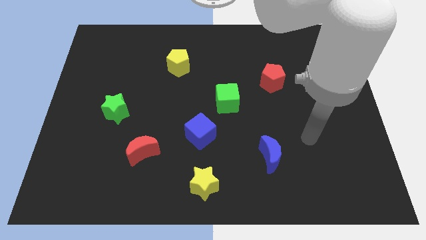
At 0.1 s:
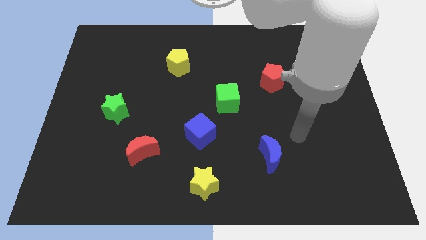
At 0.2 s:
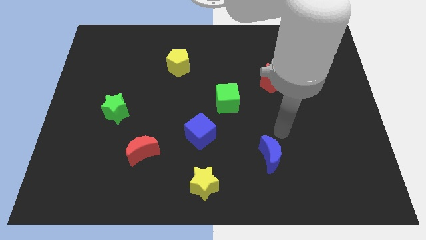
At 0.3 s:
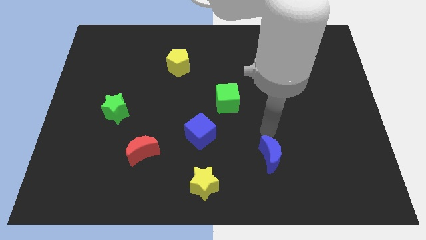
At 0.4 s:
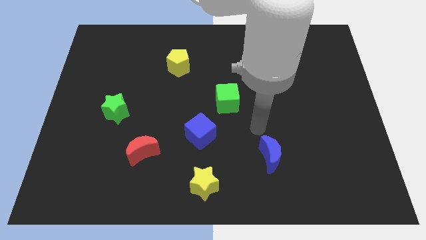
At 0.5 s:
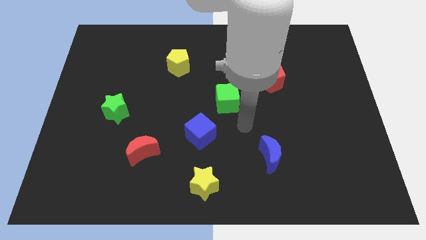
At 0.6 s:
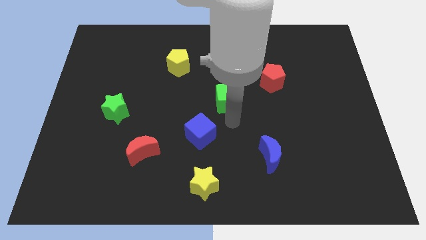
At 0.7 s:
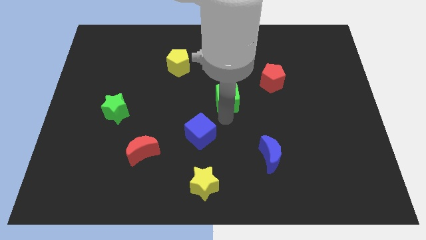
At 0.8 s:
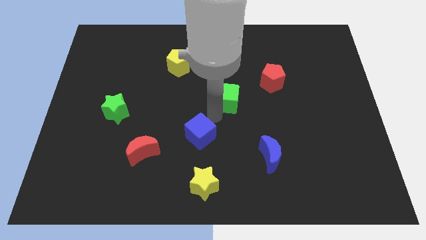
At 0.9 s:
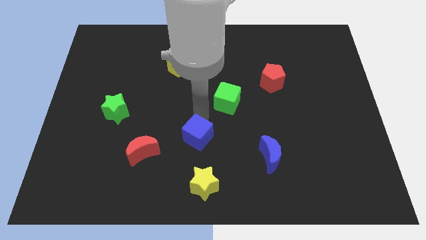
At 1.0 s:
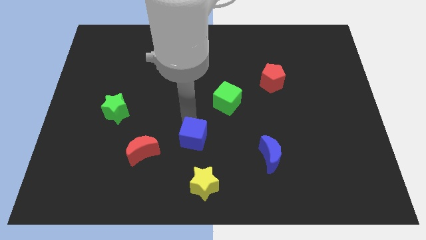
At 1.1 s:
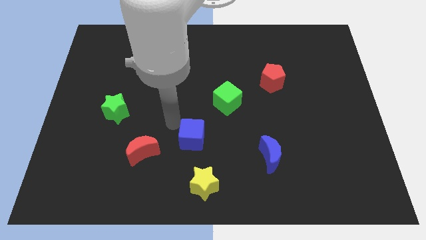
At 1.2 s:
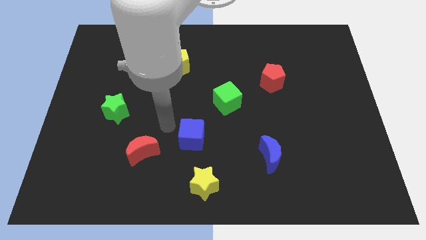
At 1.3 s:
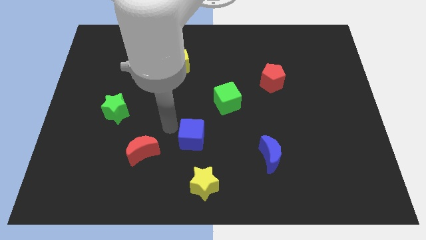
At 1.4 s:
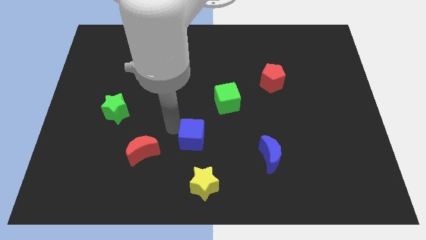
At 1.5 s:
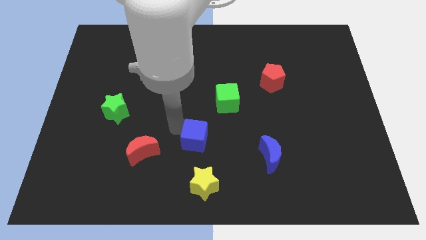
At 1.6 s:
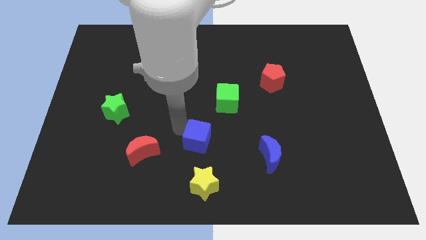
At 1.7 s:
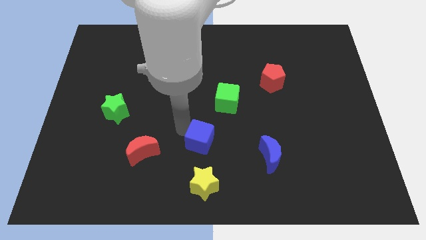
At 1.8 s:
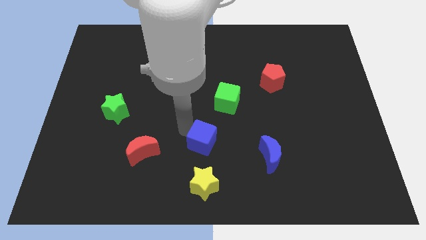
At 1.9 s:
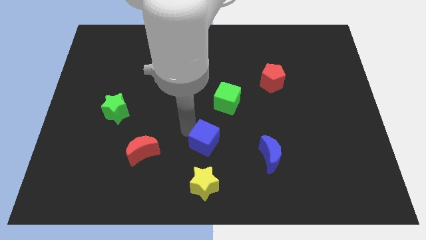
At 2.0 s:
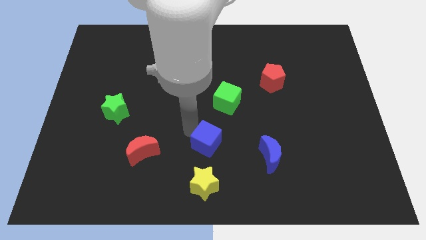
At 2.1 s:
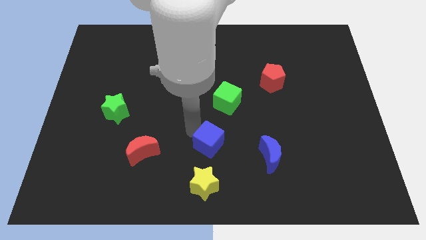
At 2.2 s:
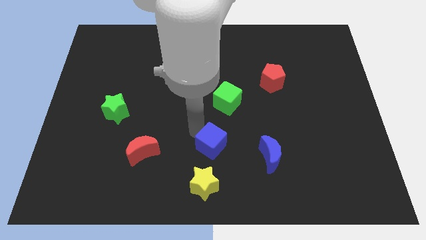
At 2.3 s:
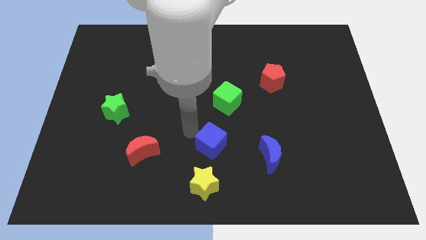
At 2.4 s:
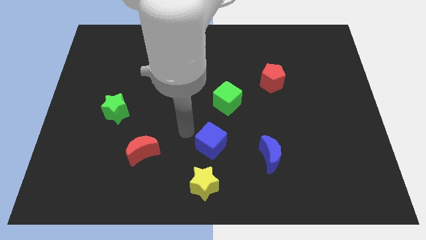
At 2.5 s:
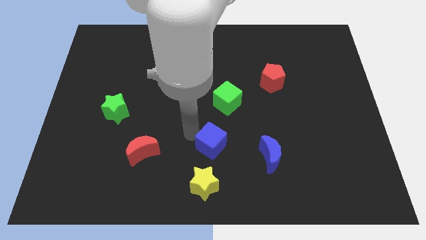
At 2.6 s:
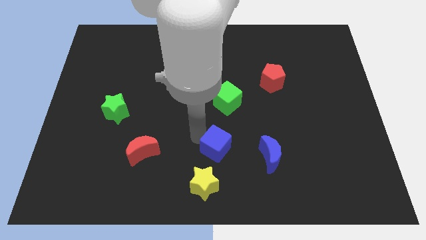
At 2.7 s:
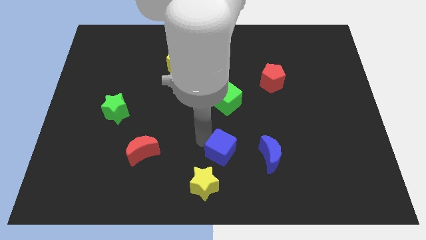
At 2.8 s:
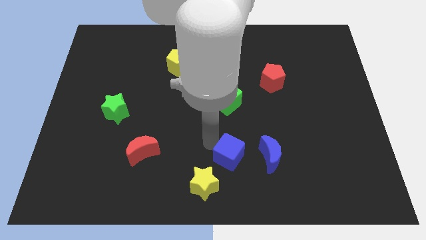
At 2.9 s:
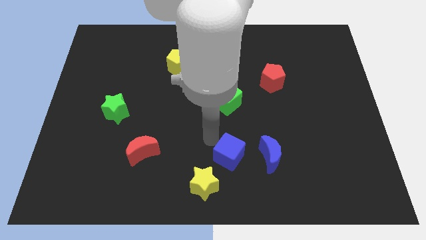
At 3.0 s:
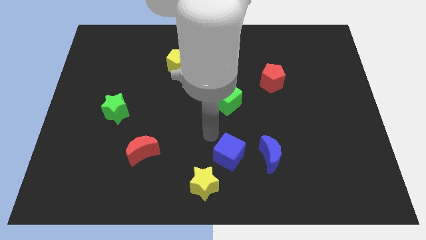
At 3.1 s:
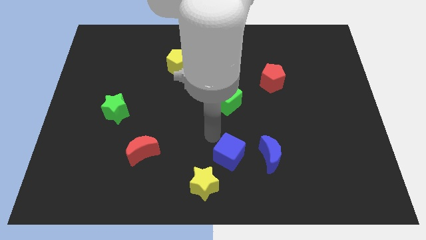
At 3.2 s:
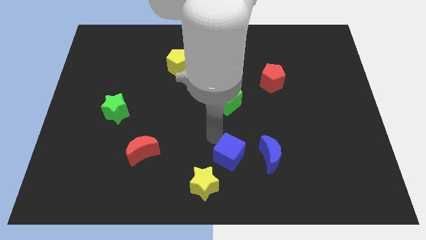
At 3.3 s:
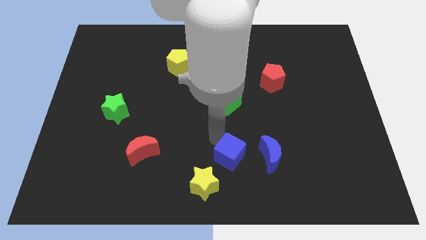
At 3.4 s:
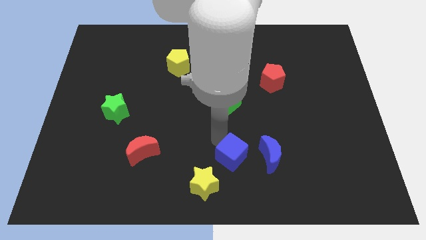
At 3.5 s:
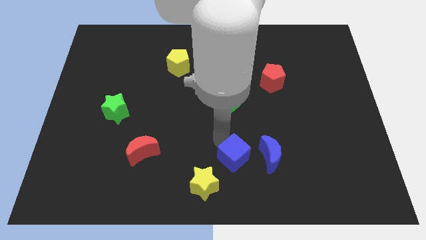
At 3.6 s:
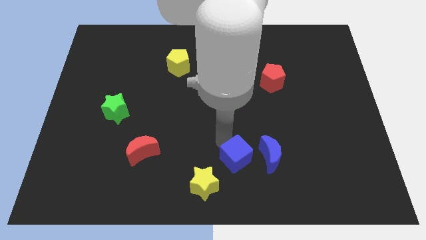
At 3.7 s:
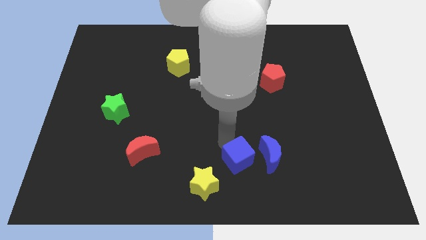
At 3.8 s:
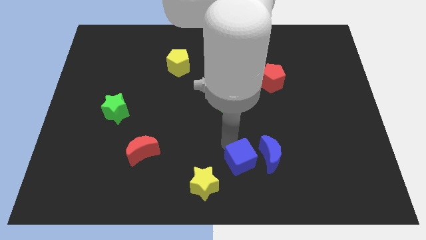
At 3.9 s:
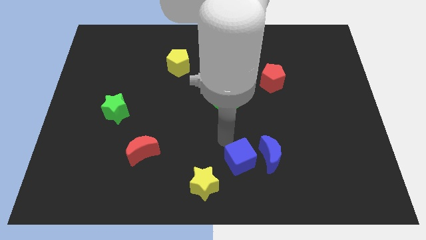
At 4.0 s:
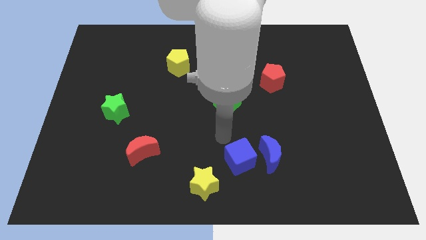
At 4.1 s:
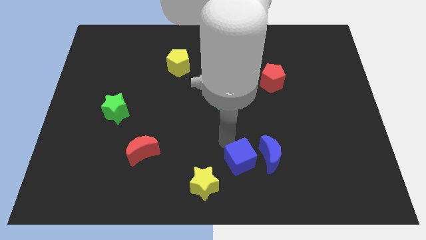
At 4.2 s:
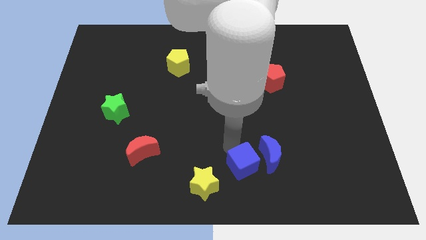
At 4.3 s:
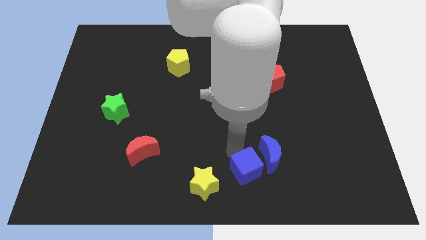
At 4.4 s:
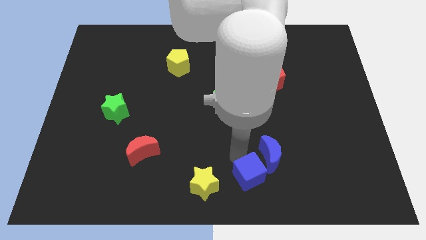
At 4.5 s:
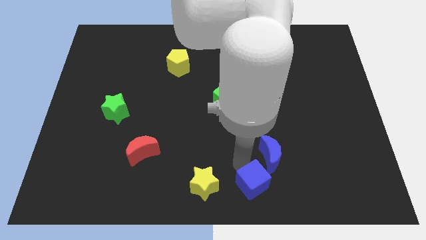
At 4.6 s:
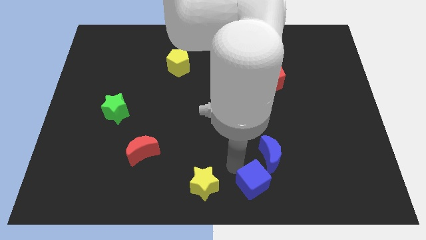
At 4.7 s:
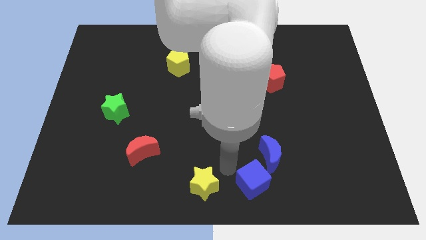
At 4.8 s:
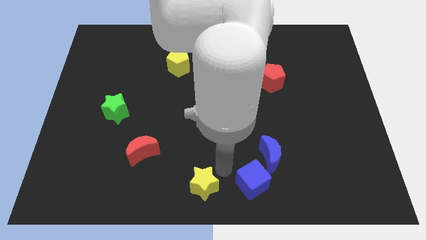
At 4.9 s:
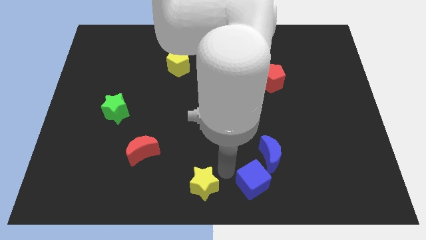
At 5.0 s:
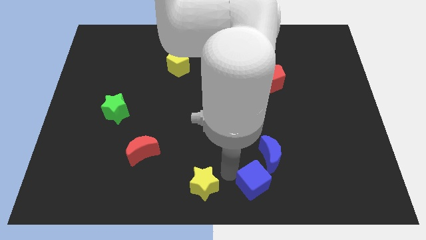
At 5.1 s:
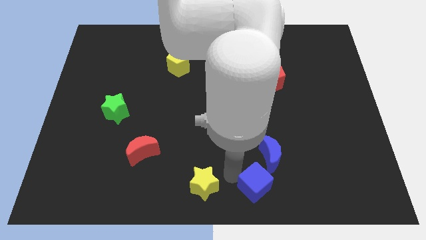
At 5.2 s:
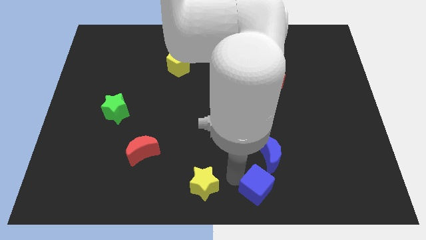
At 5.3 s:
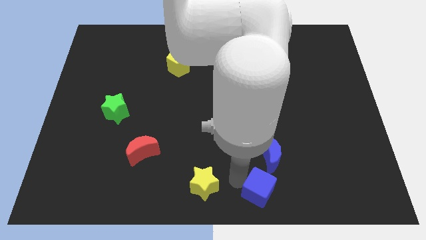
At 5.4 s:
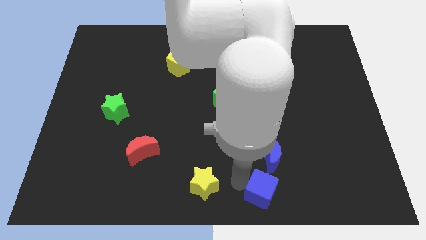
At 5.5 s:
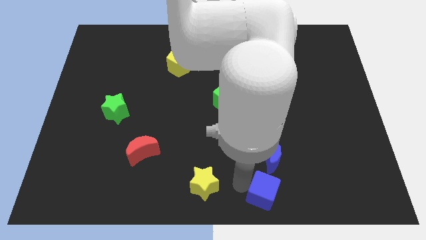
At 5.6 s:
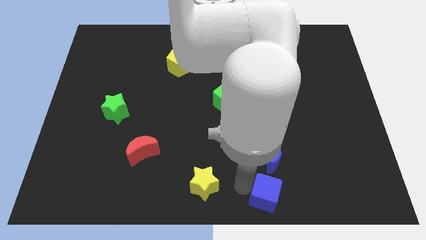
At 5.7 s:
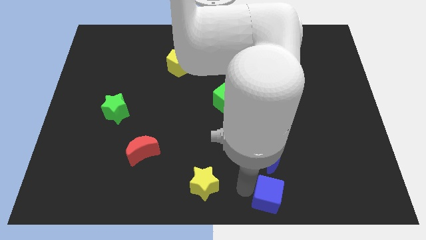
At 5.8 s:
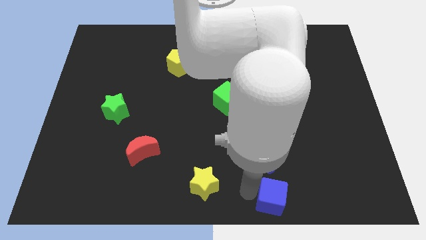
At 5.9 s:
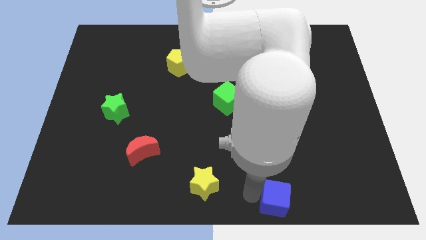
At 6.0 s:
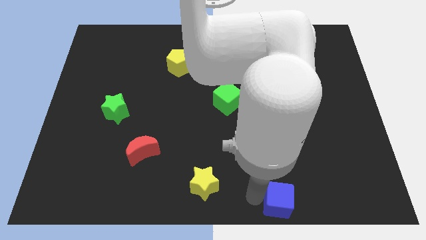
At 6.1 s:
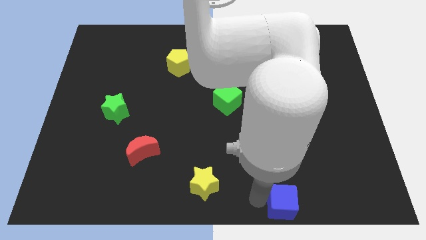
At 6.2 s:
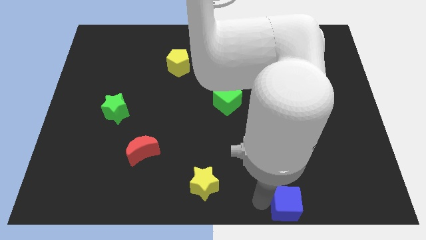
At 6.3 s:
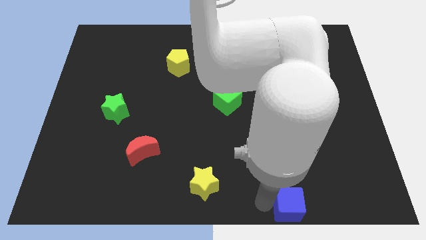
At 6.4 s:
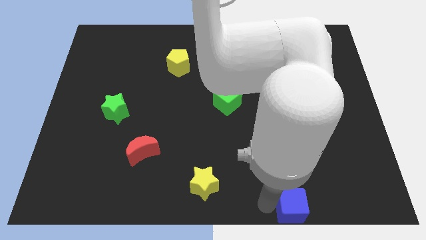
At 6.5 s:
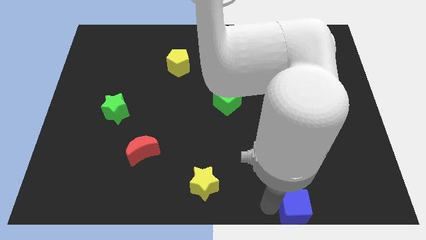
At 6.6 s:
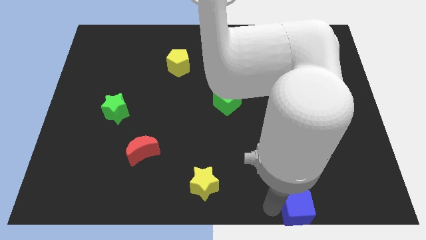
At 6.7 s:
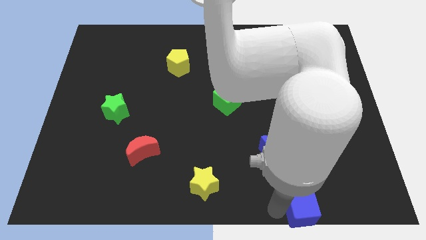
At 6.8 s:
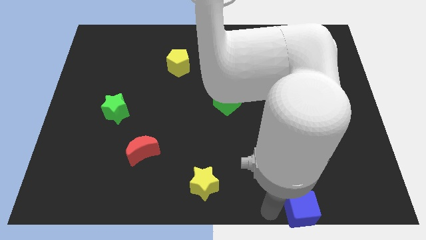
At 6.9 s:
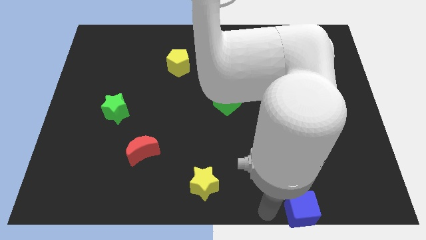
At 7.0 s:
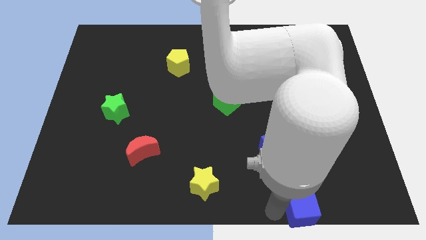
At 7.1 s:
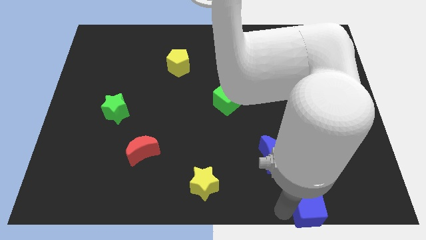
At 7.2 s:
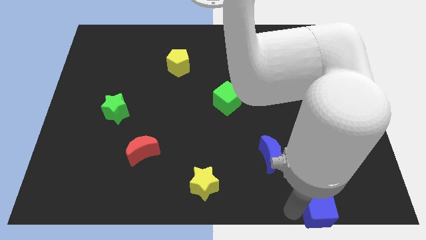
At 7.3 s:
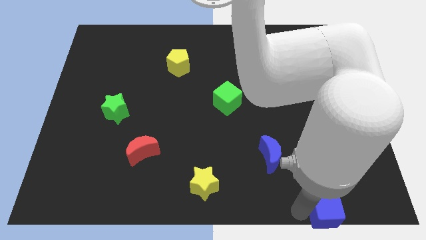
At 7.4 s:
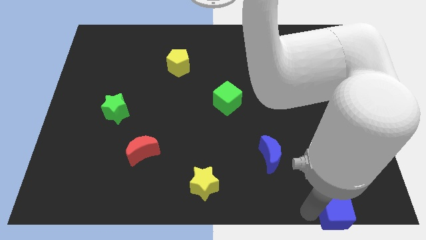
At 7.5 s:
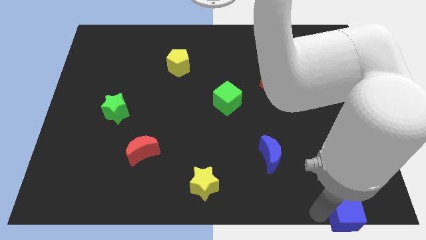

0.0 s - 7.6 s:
slide the blue cube to the bottom right corner
